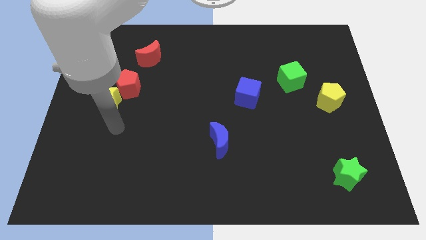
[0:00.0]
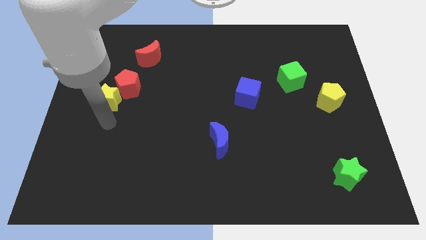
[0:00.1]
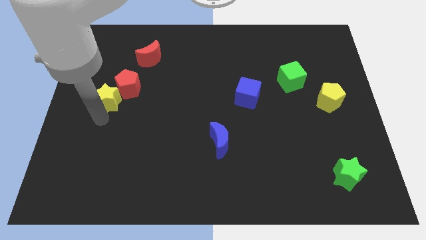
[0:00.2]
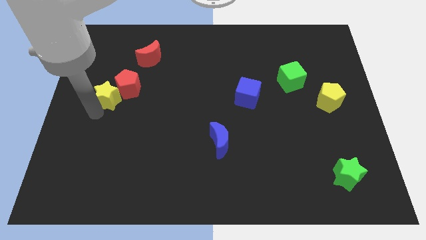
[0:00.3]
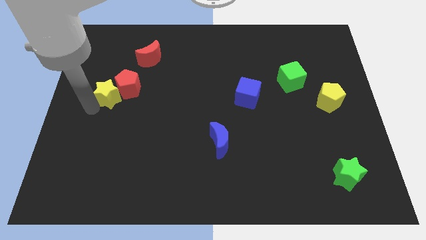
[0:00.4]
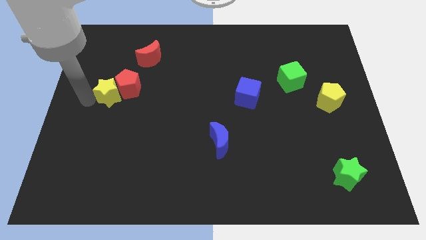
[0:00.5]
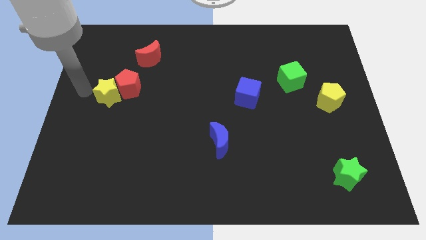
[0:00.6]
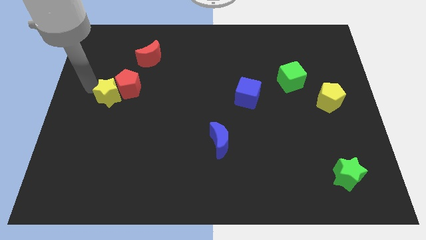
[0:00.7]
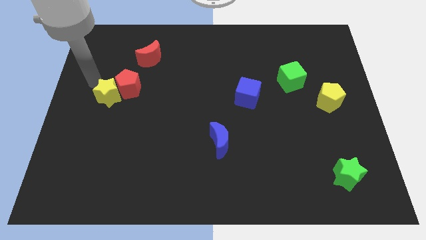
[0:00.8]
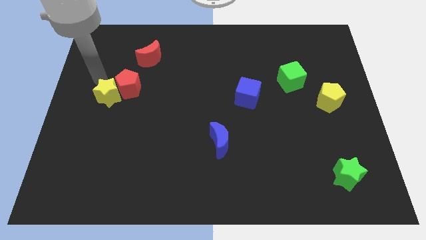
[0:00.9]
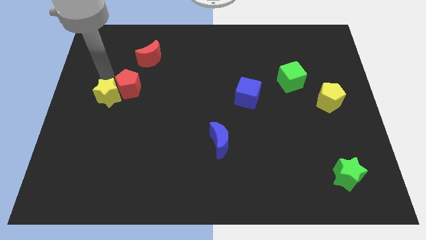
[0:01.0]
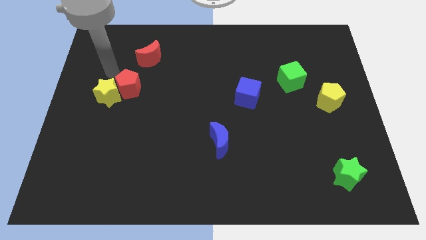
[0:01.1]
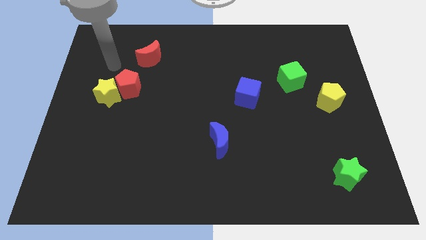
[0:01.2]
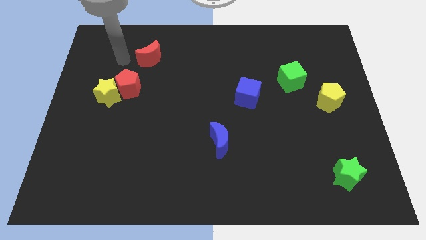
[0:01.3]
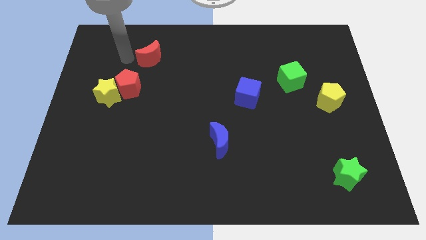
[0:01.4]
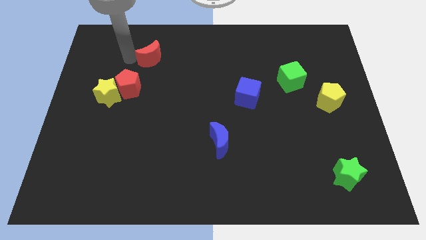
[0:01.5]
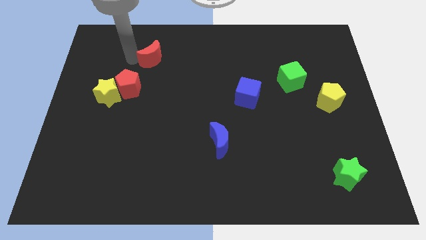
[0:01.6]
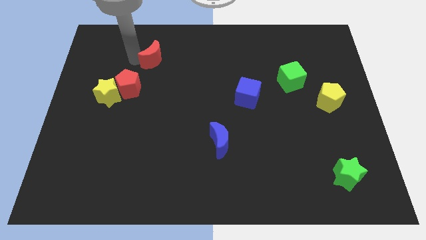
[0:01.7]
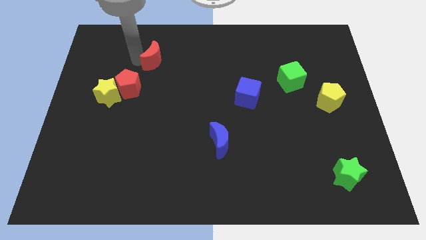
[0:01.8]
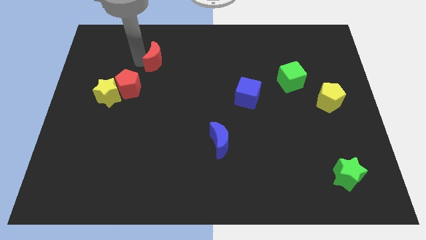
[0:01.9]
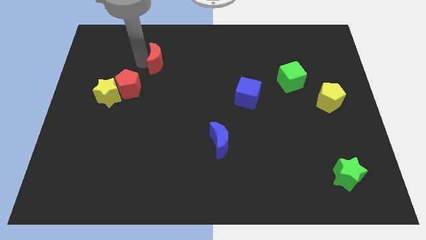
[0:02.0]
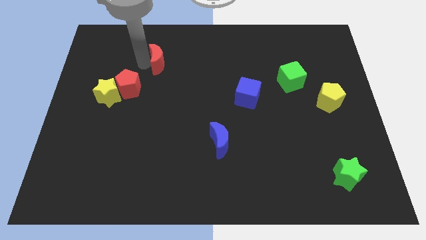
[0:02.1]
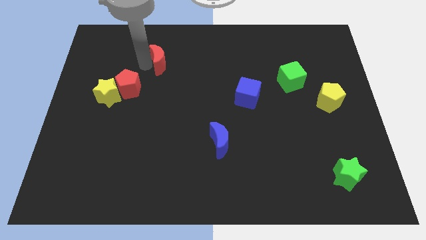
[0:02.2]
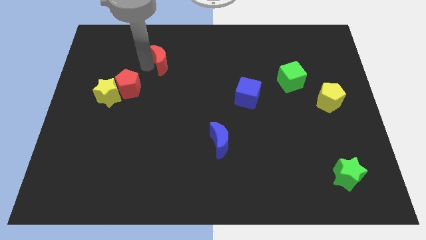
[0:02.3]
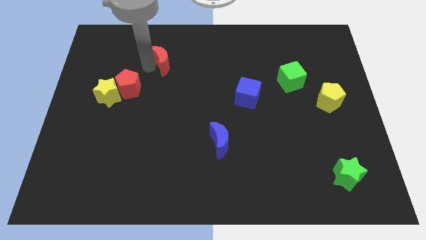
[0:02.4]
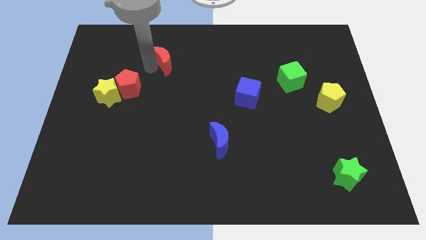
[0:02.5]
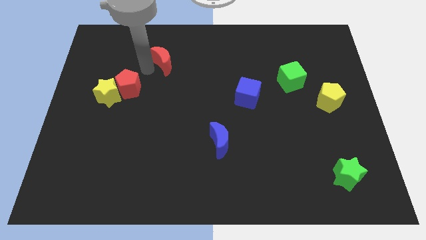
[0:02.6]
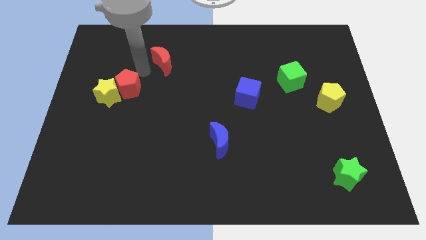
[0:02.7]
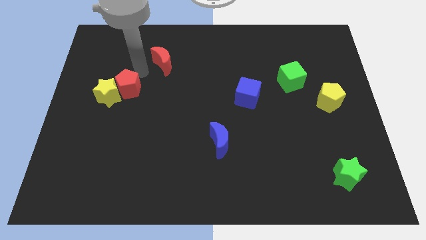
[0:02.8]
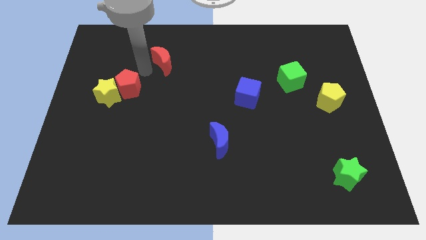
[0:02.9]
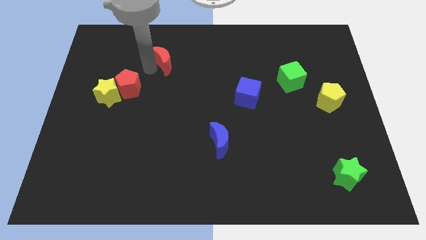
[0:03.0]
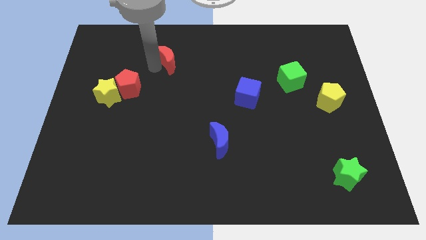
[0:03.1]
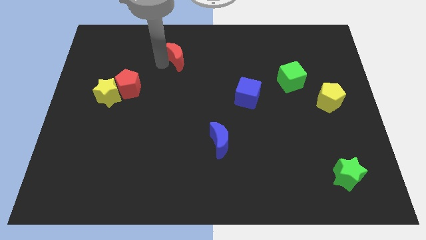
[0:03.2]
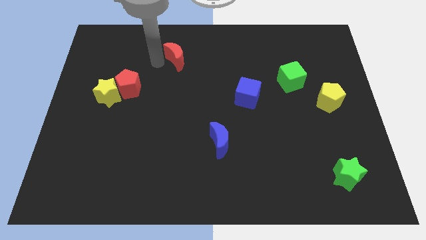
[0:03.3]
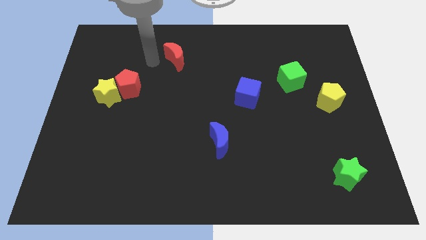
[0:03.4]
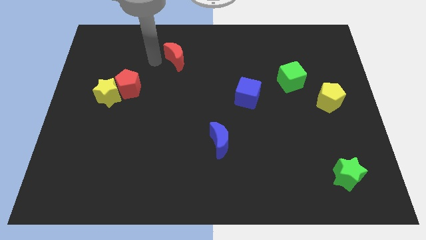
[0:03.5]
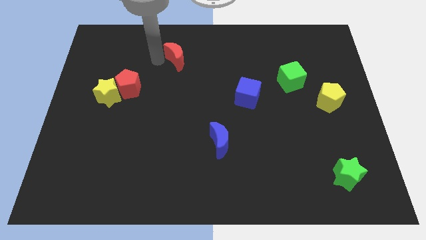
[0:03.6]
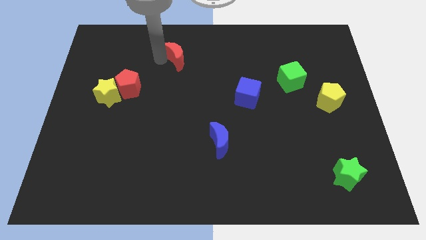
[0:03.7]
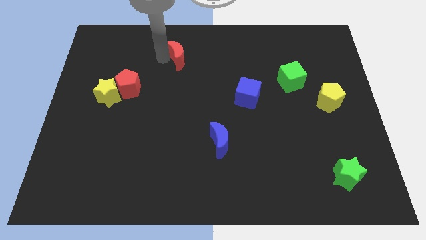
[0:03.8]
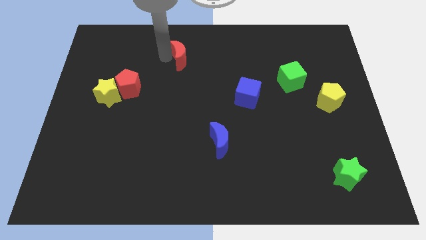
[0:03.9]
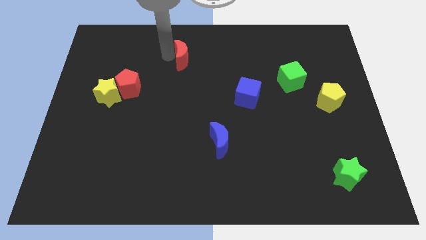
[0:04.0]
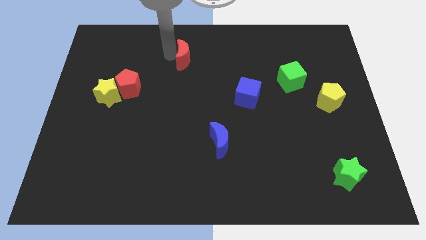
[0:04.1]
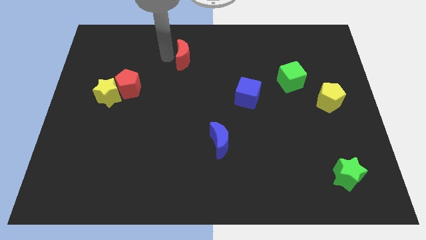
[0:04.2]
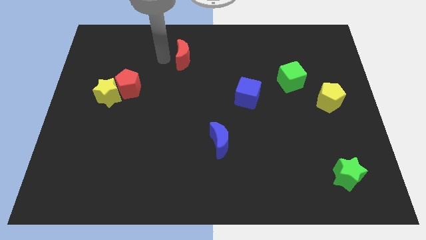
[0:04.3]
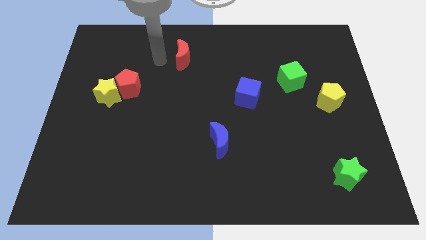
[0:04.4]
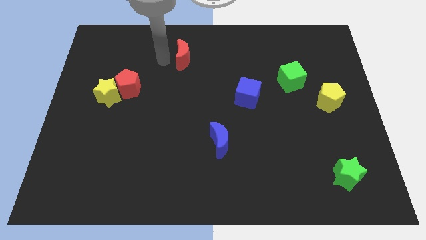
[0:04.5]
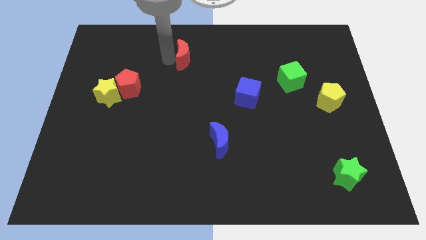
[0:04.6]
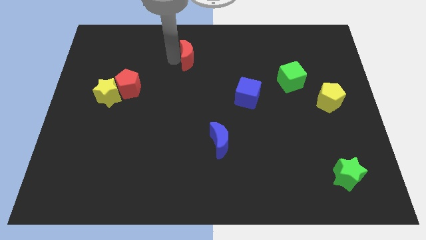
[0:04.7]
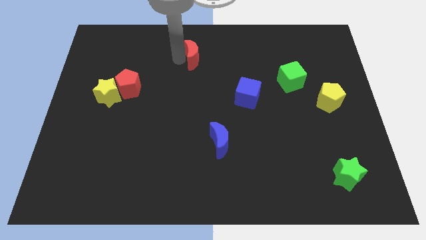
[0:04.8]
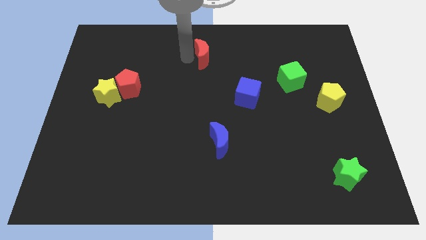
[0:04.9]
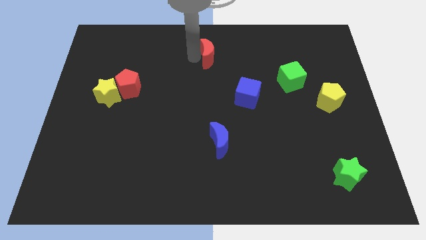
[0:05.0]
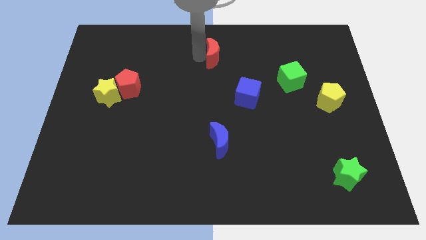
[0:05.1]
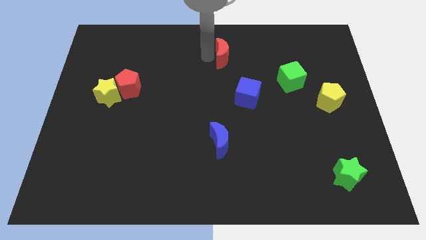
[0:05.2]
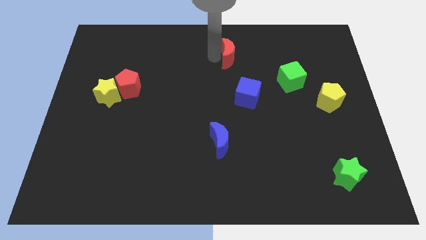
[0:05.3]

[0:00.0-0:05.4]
push the red moon right

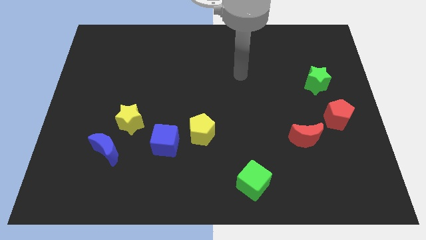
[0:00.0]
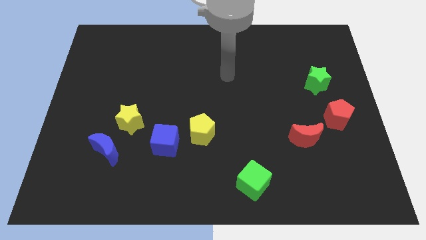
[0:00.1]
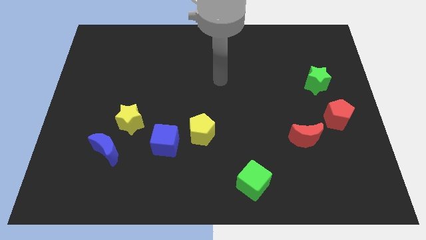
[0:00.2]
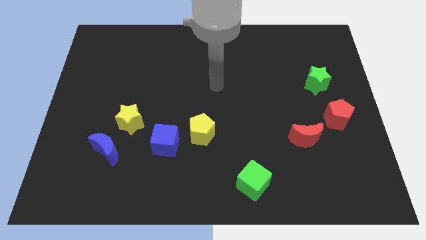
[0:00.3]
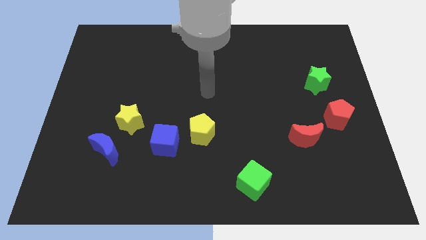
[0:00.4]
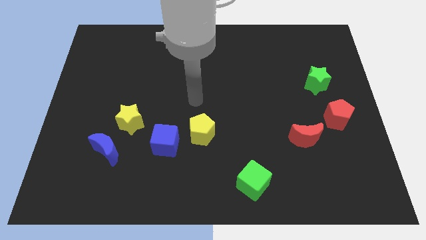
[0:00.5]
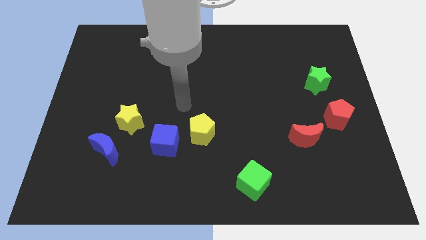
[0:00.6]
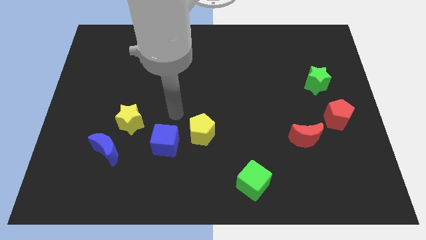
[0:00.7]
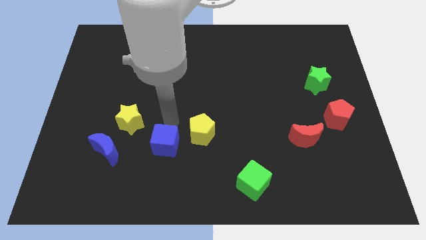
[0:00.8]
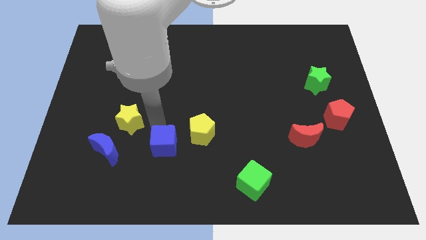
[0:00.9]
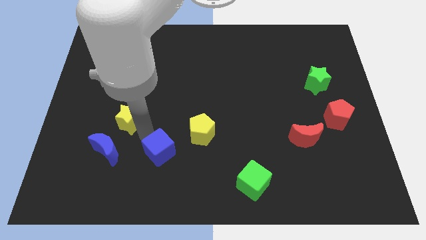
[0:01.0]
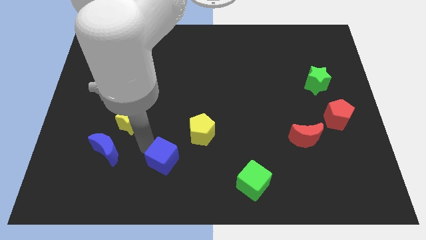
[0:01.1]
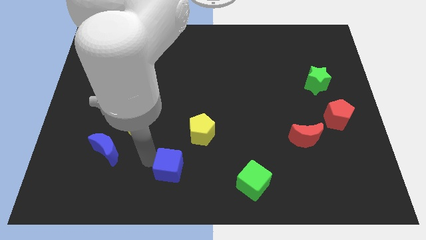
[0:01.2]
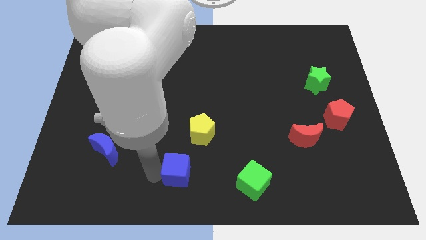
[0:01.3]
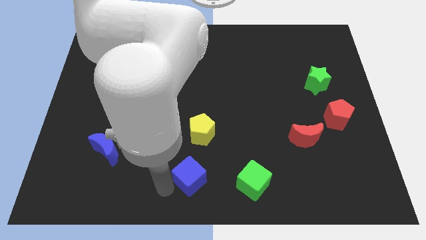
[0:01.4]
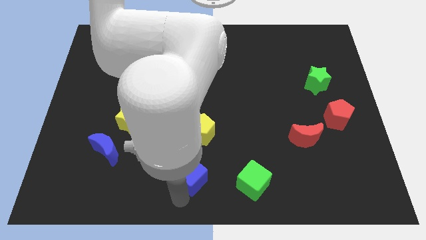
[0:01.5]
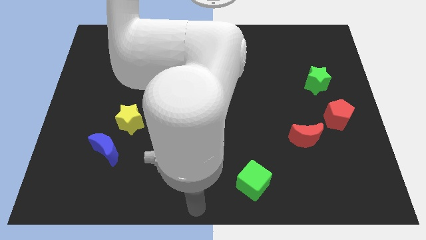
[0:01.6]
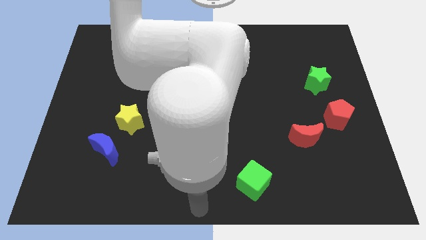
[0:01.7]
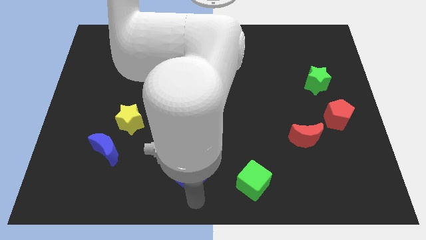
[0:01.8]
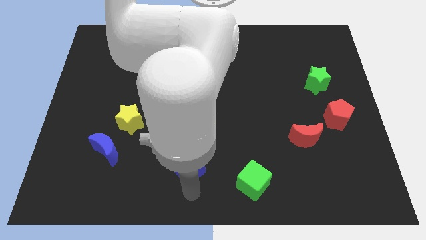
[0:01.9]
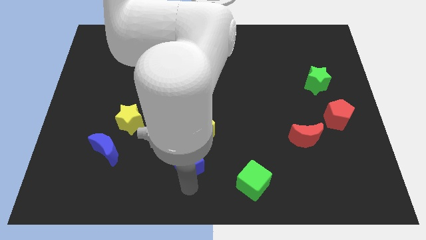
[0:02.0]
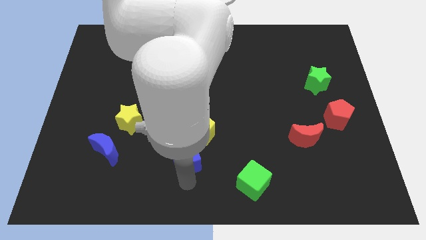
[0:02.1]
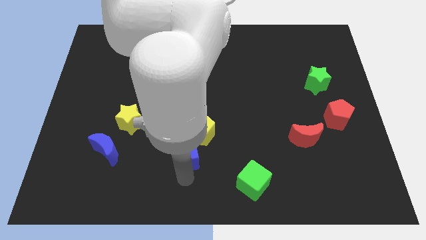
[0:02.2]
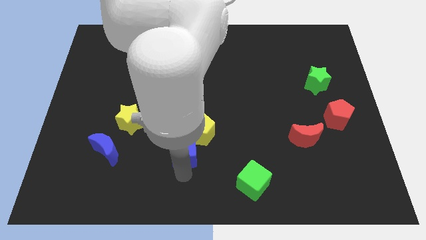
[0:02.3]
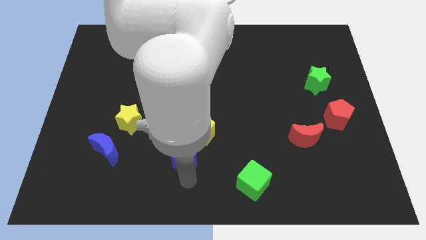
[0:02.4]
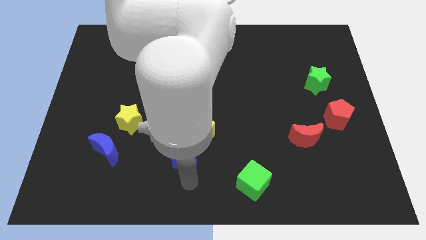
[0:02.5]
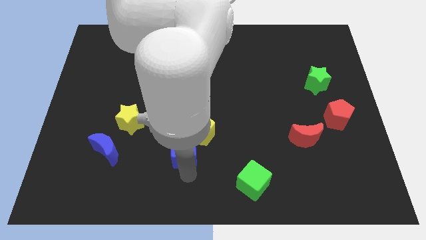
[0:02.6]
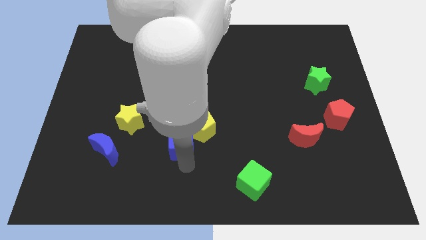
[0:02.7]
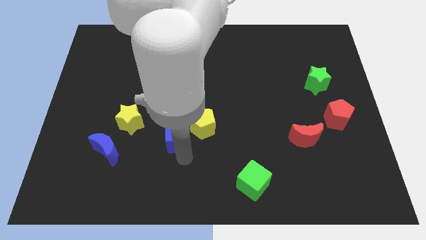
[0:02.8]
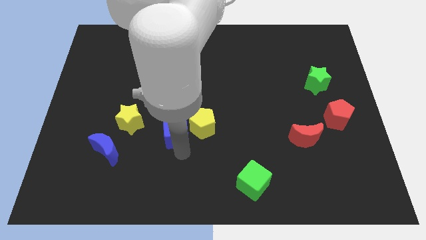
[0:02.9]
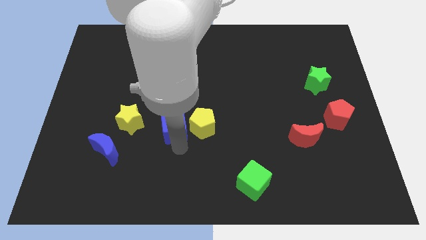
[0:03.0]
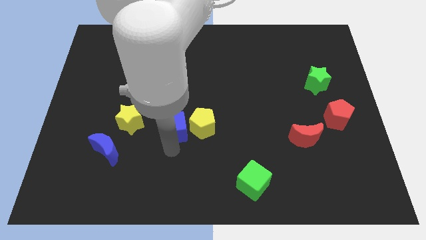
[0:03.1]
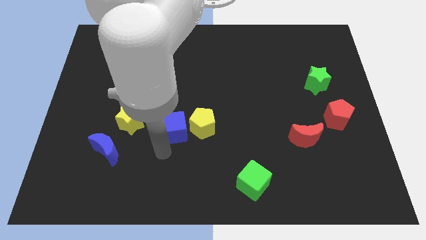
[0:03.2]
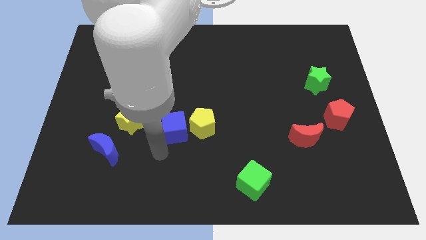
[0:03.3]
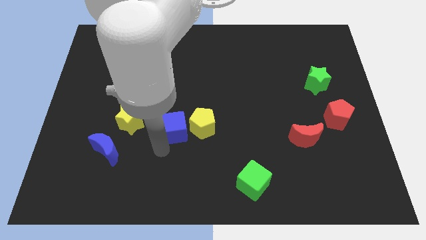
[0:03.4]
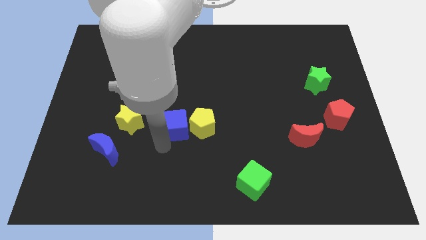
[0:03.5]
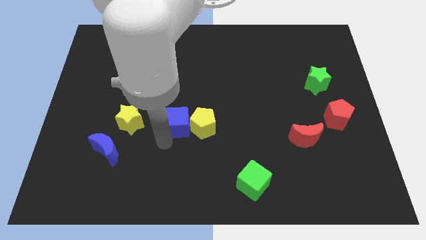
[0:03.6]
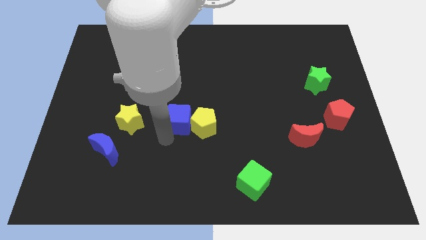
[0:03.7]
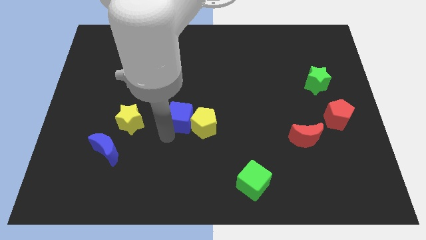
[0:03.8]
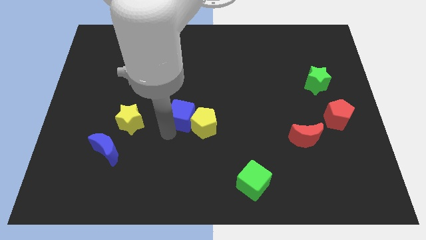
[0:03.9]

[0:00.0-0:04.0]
move the blue cube diagonally upwards and right a little bit
